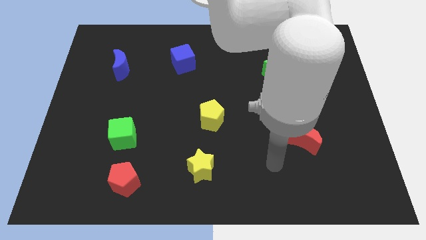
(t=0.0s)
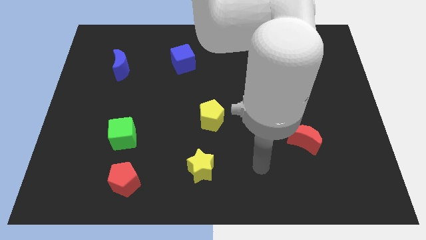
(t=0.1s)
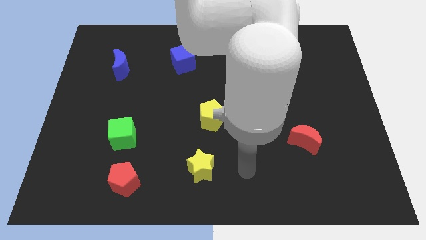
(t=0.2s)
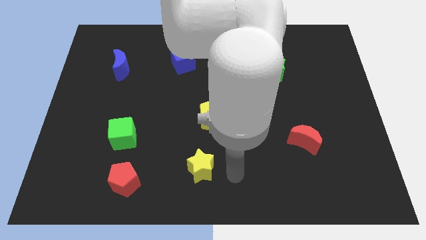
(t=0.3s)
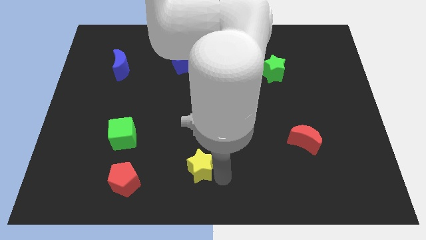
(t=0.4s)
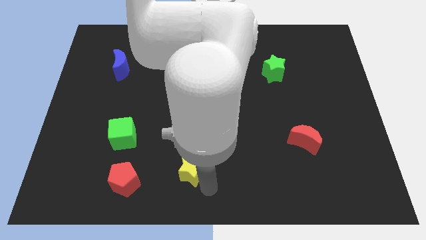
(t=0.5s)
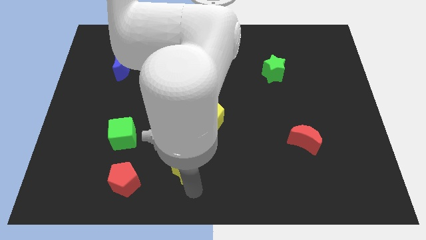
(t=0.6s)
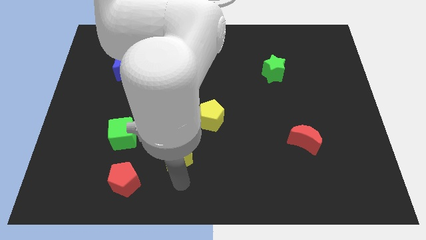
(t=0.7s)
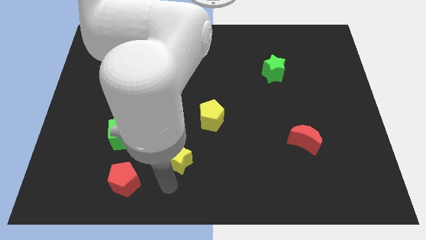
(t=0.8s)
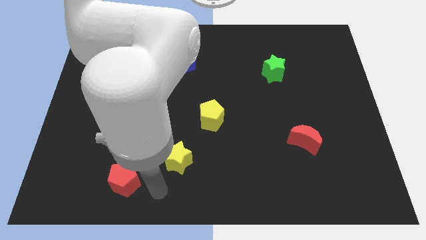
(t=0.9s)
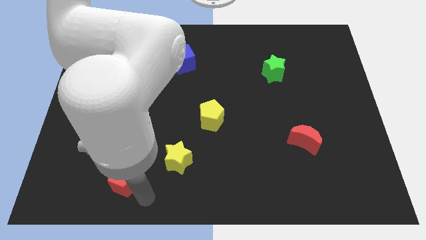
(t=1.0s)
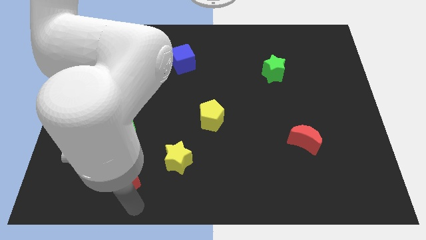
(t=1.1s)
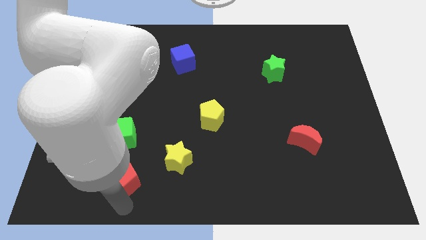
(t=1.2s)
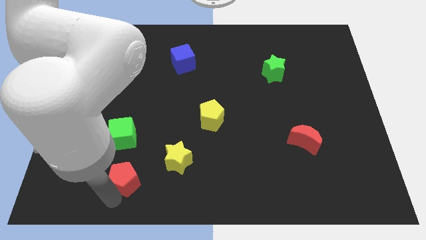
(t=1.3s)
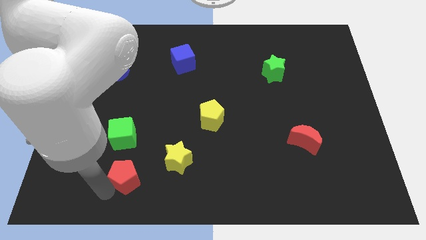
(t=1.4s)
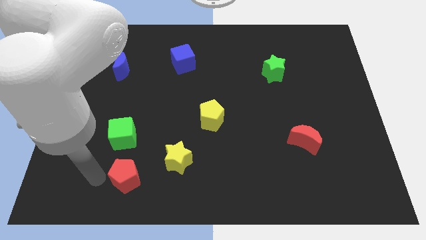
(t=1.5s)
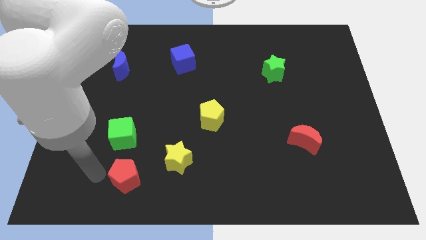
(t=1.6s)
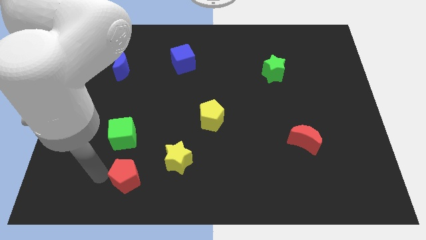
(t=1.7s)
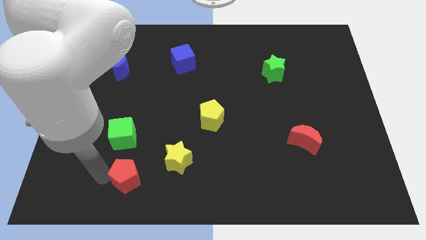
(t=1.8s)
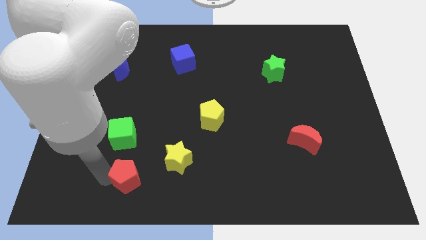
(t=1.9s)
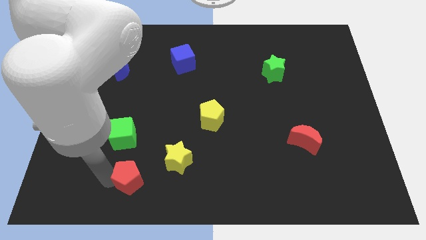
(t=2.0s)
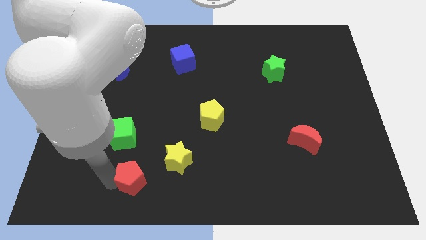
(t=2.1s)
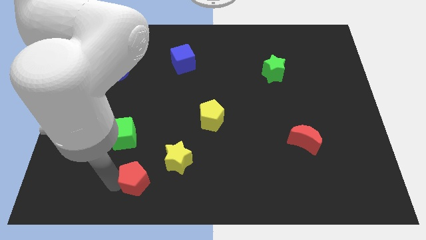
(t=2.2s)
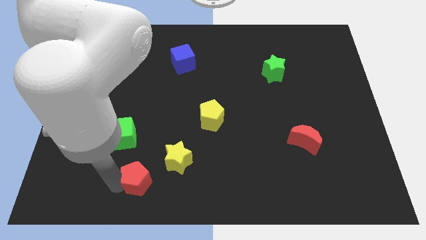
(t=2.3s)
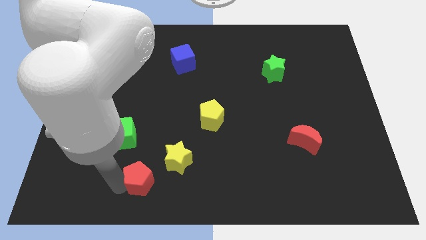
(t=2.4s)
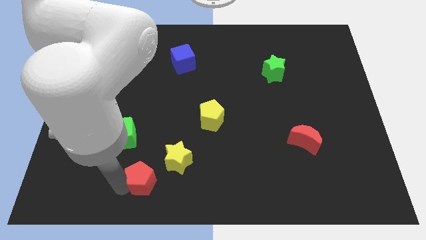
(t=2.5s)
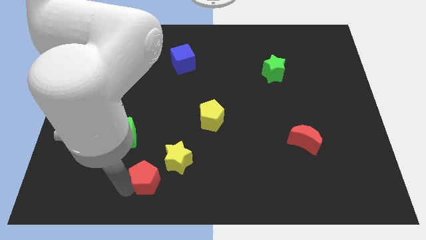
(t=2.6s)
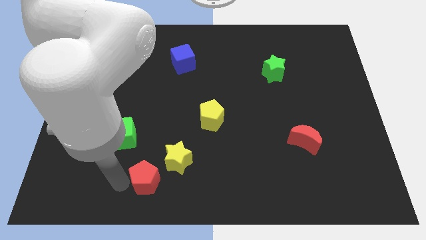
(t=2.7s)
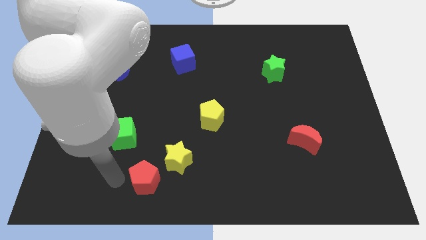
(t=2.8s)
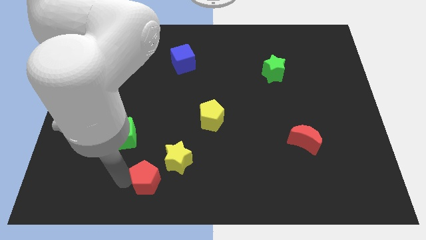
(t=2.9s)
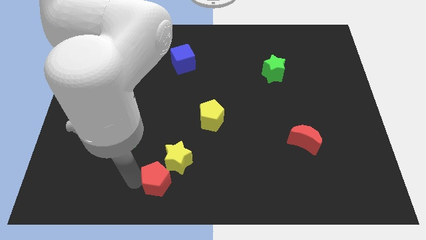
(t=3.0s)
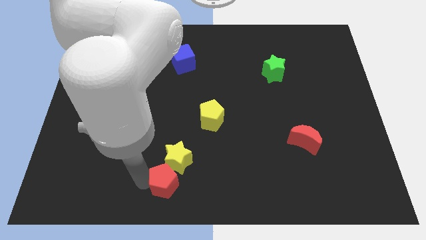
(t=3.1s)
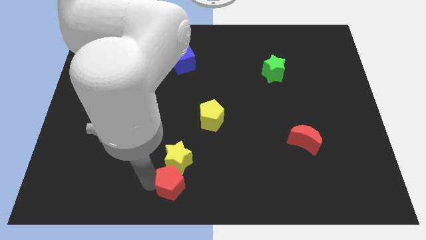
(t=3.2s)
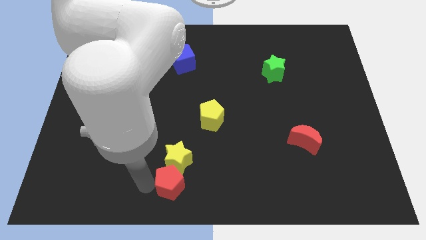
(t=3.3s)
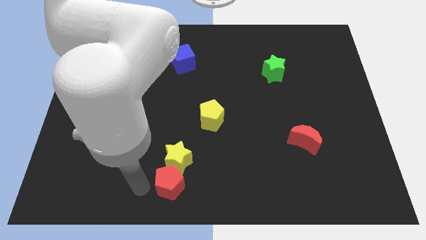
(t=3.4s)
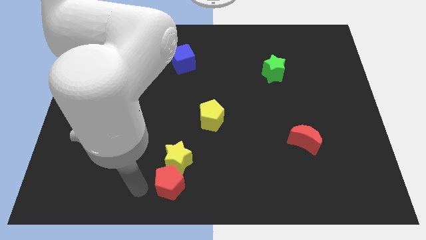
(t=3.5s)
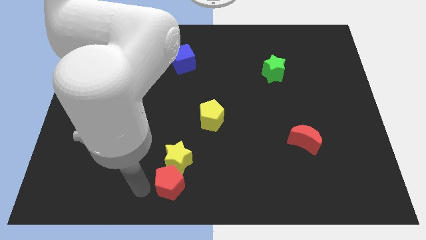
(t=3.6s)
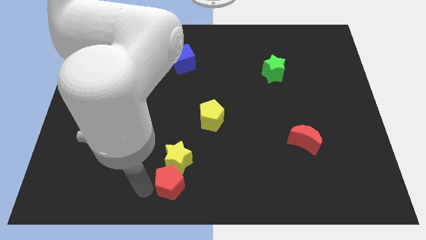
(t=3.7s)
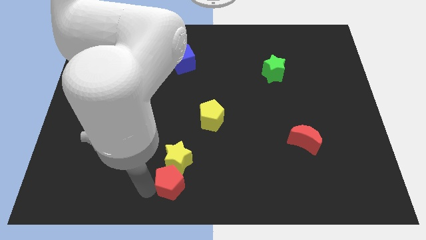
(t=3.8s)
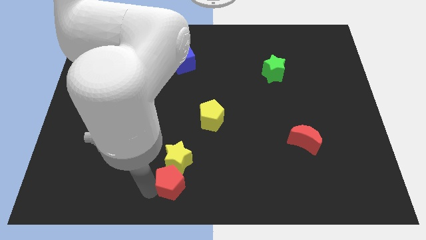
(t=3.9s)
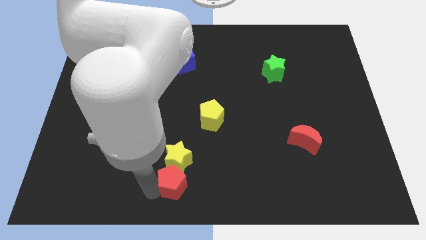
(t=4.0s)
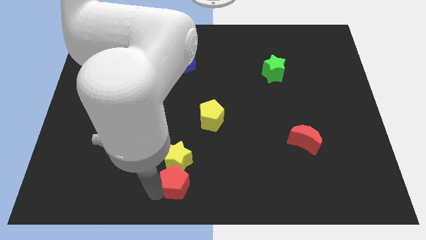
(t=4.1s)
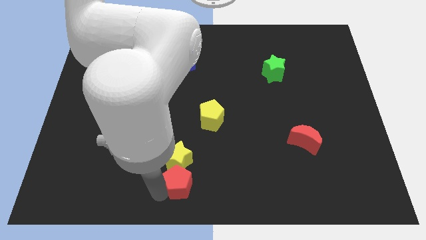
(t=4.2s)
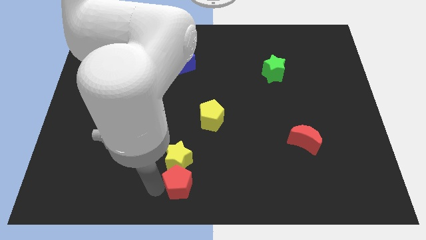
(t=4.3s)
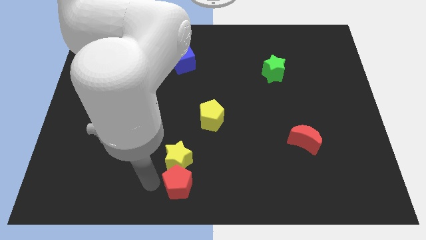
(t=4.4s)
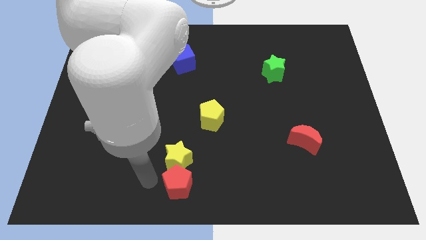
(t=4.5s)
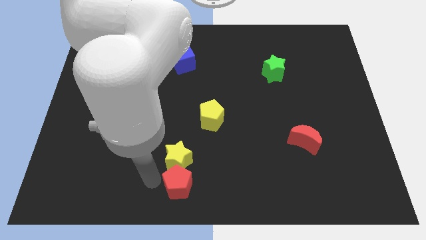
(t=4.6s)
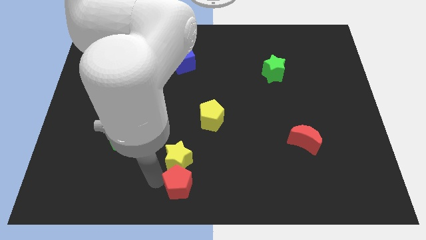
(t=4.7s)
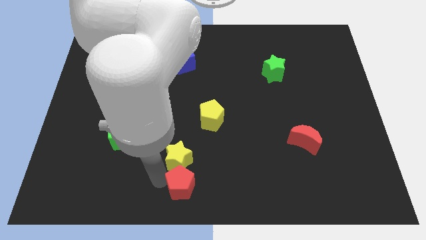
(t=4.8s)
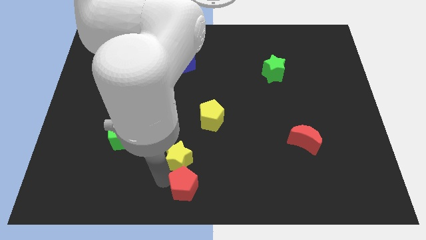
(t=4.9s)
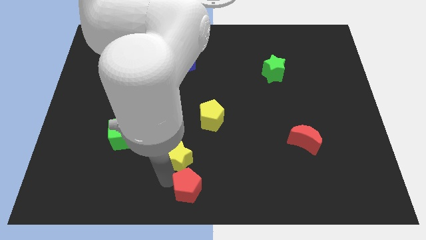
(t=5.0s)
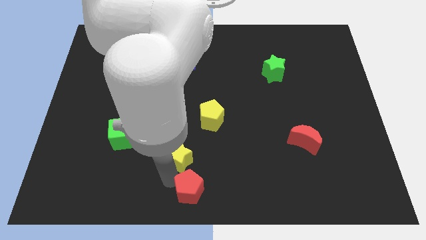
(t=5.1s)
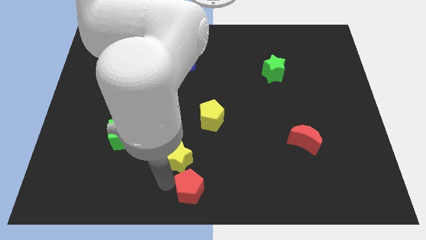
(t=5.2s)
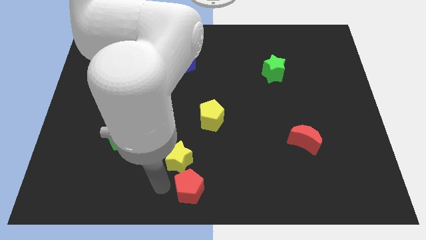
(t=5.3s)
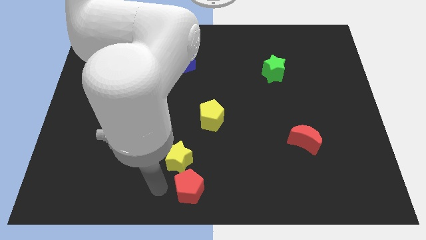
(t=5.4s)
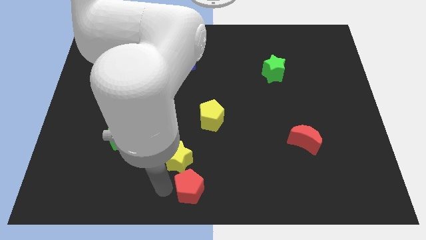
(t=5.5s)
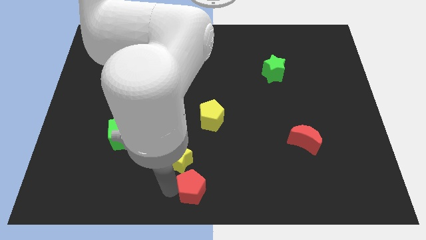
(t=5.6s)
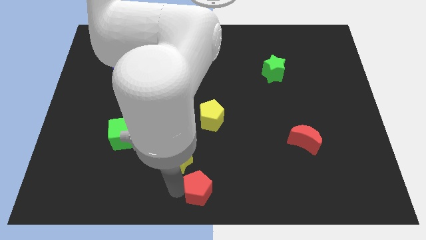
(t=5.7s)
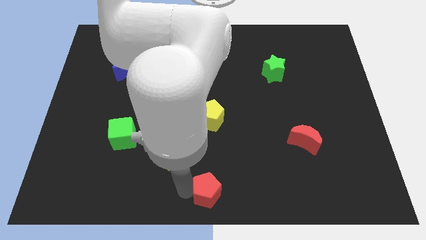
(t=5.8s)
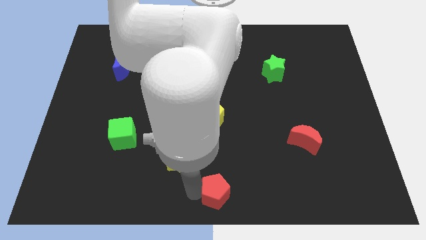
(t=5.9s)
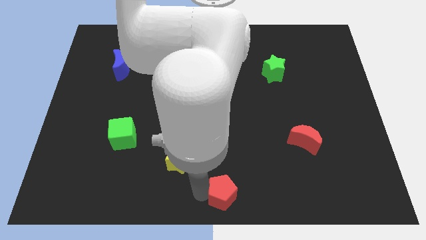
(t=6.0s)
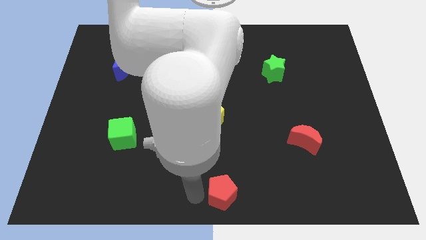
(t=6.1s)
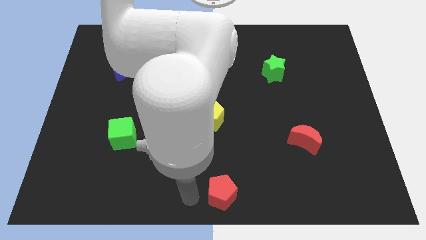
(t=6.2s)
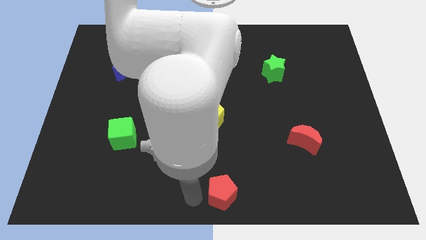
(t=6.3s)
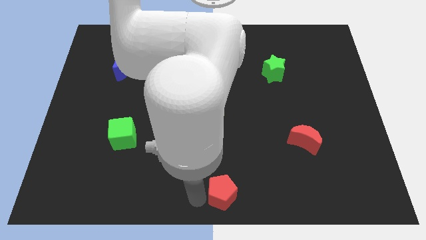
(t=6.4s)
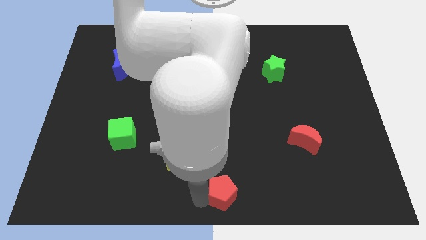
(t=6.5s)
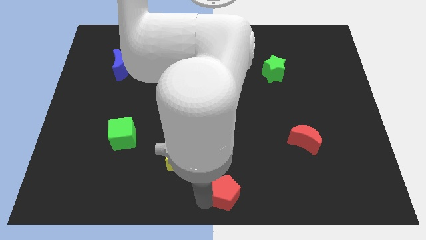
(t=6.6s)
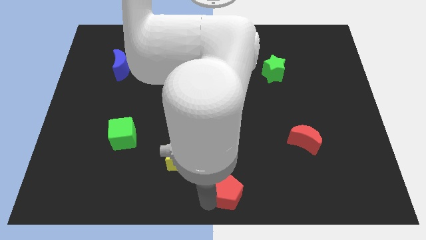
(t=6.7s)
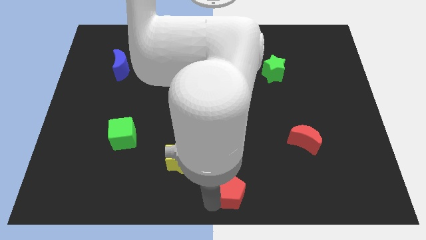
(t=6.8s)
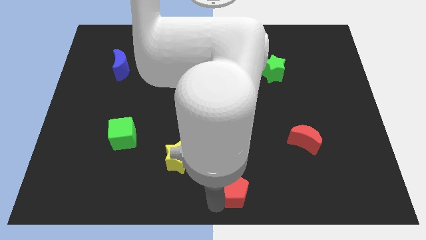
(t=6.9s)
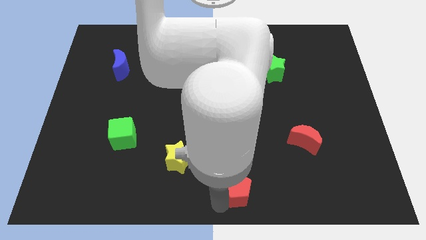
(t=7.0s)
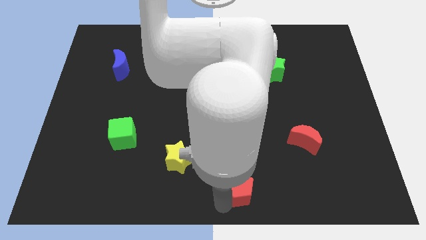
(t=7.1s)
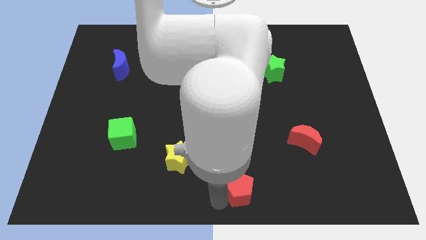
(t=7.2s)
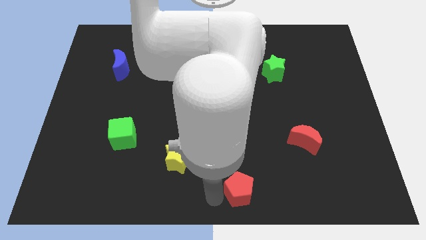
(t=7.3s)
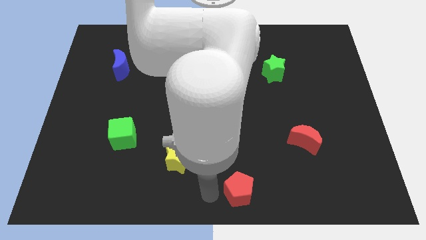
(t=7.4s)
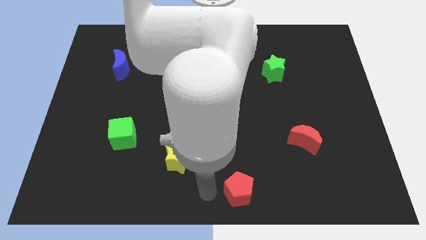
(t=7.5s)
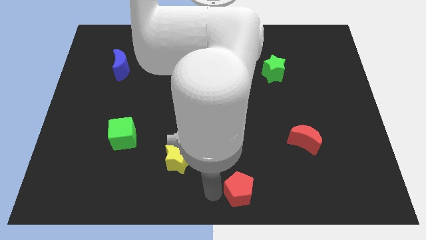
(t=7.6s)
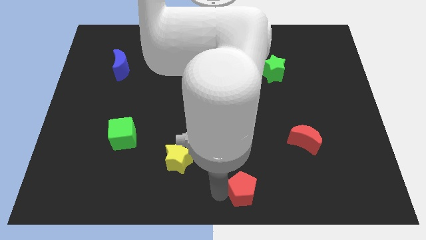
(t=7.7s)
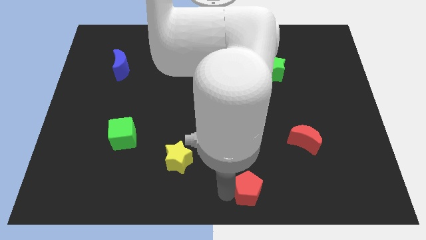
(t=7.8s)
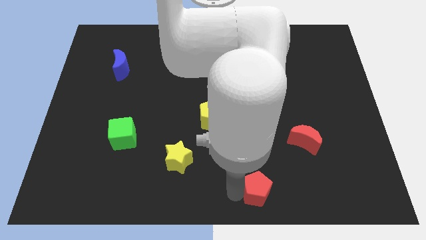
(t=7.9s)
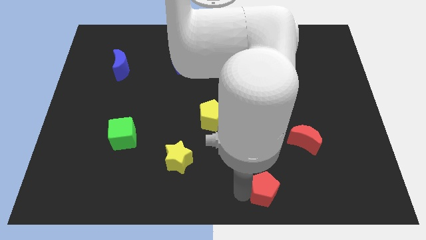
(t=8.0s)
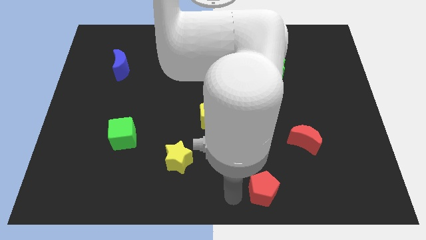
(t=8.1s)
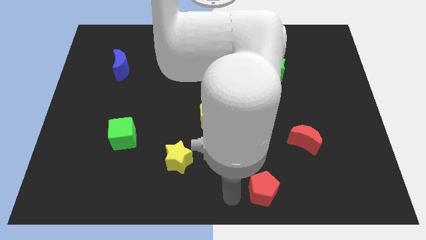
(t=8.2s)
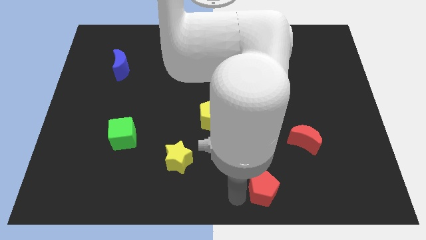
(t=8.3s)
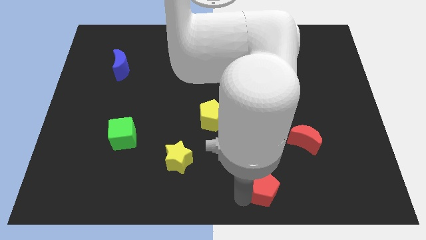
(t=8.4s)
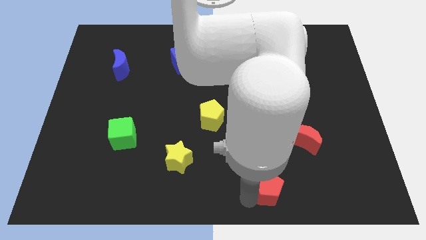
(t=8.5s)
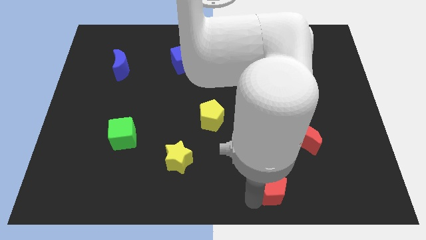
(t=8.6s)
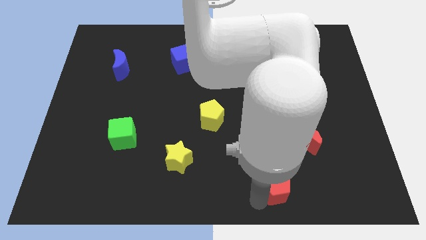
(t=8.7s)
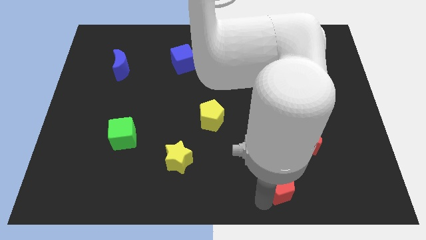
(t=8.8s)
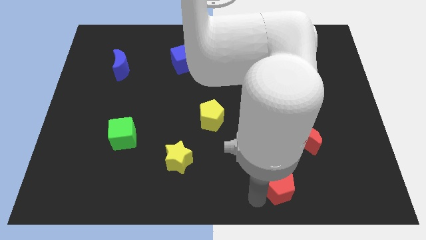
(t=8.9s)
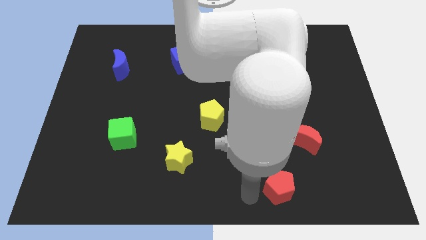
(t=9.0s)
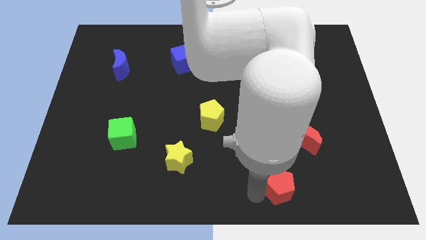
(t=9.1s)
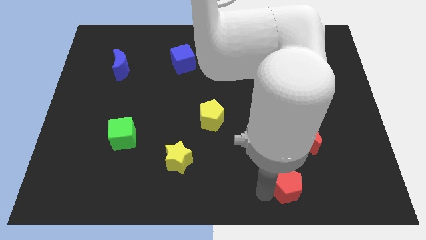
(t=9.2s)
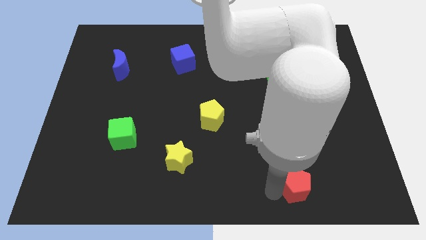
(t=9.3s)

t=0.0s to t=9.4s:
put the red pentagon to the bottom side of the red moon
